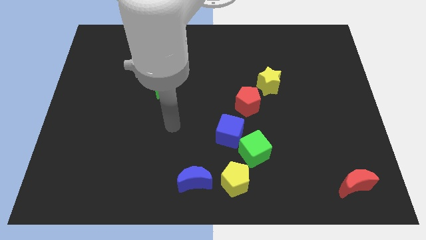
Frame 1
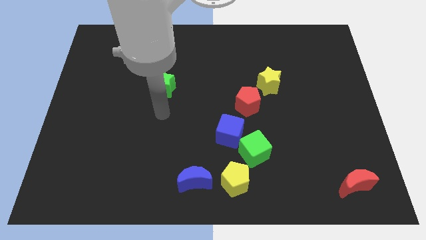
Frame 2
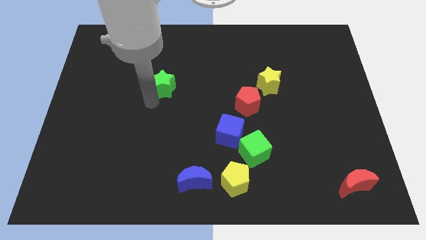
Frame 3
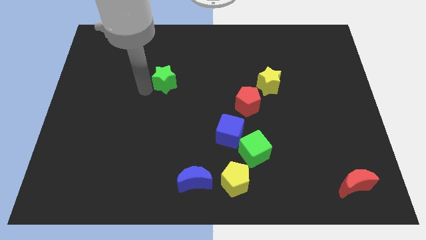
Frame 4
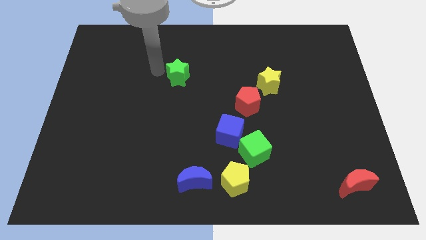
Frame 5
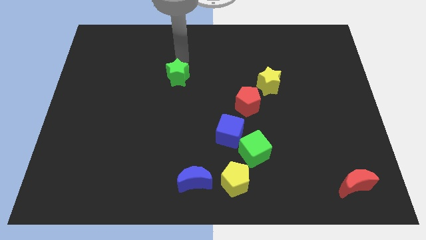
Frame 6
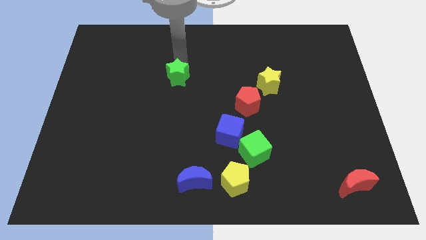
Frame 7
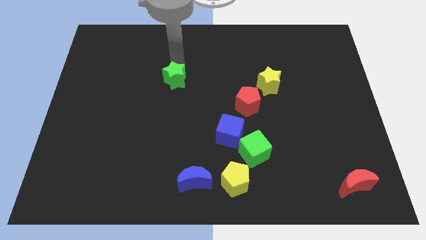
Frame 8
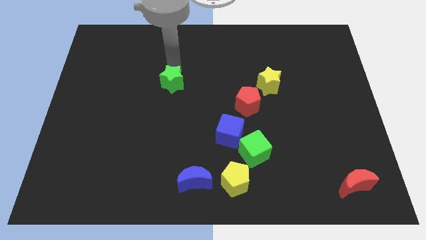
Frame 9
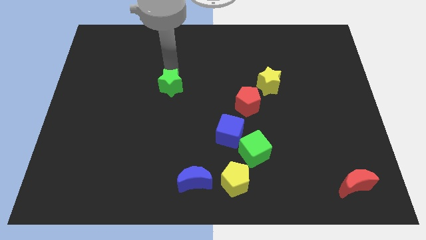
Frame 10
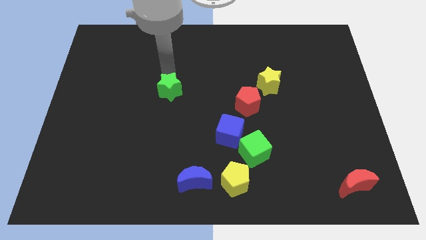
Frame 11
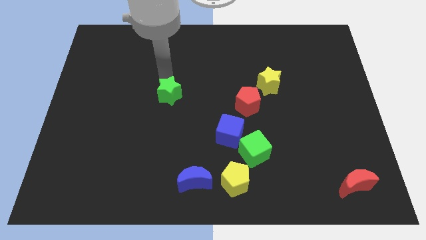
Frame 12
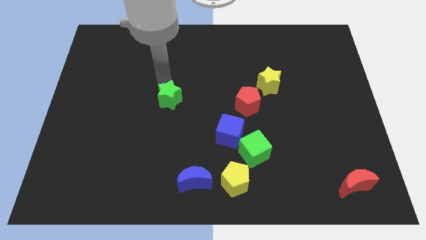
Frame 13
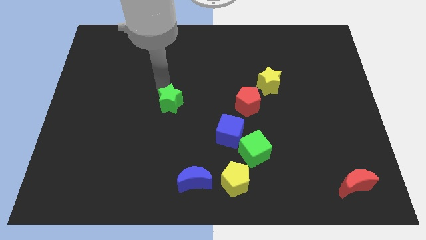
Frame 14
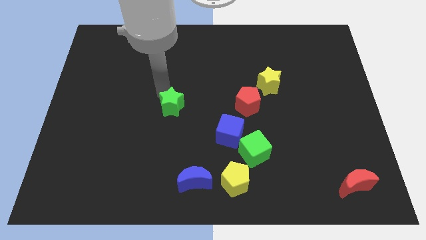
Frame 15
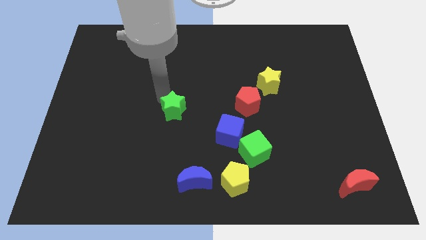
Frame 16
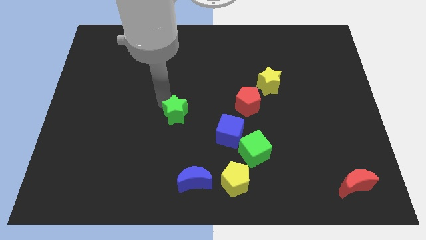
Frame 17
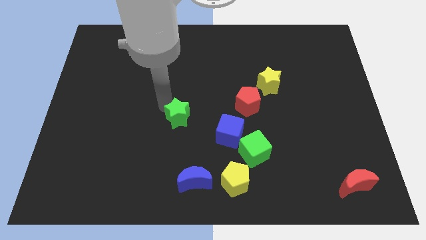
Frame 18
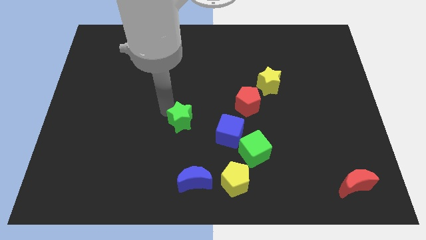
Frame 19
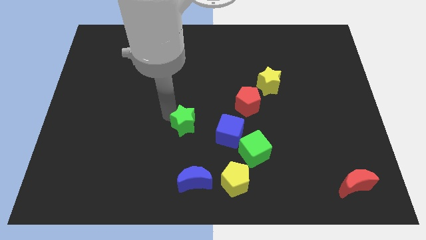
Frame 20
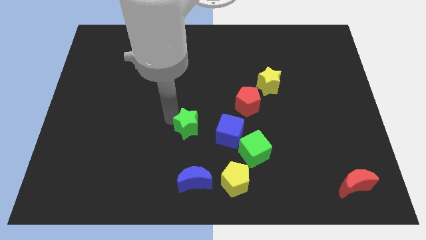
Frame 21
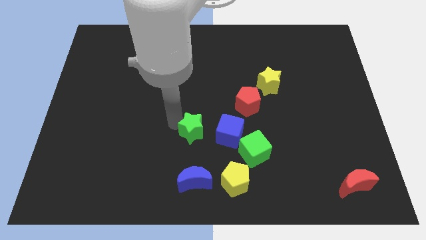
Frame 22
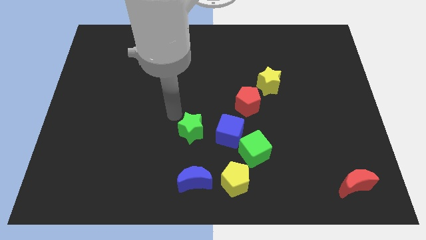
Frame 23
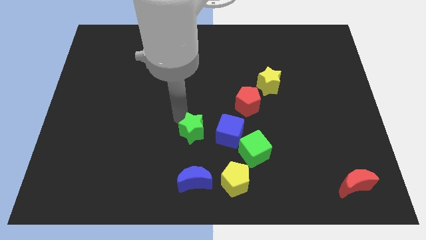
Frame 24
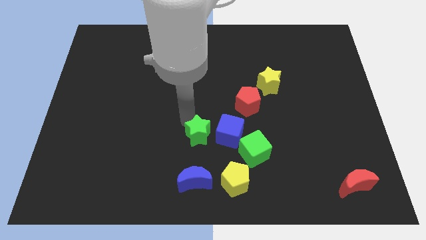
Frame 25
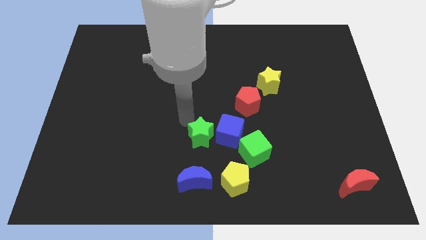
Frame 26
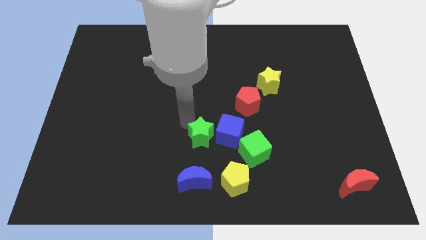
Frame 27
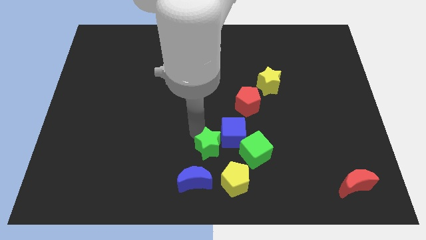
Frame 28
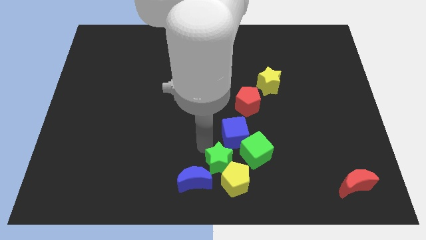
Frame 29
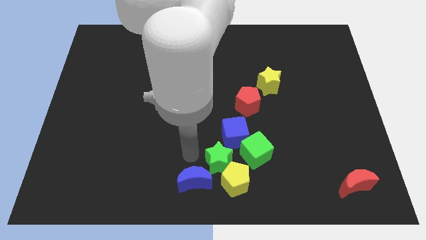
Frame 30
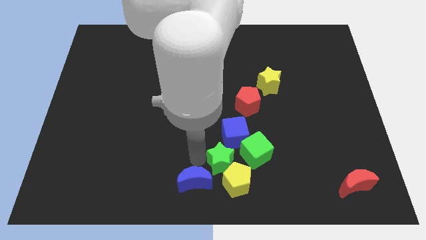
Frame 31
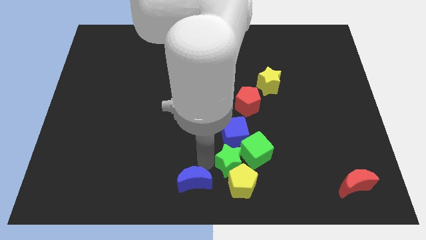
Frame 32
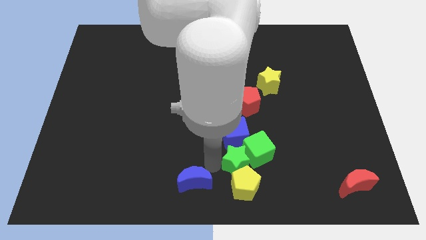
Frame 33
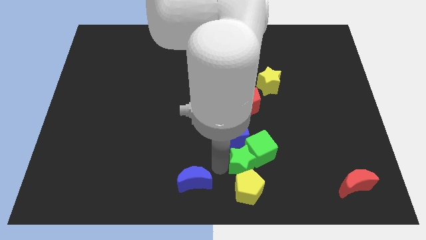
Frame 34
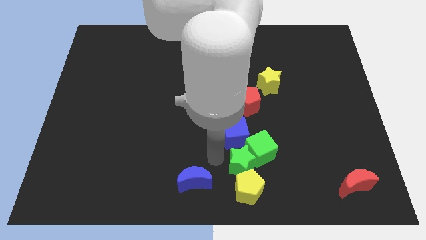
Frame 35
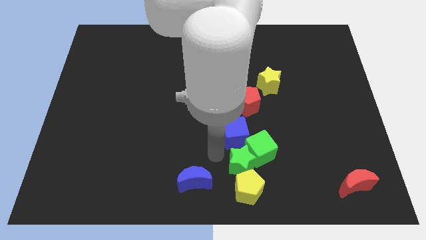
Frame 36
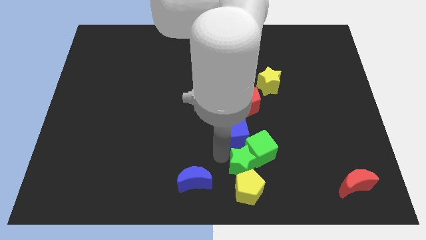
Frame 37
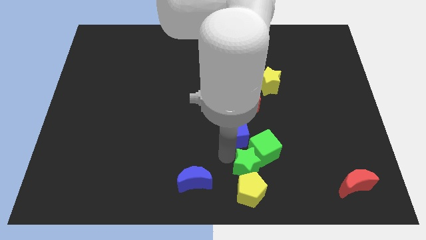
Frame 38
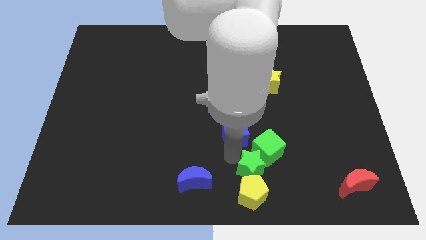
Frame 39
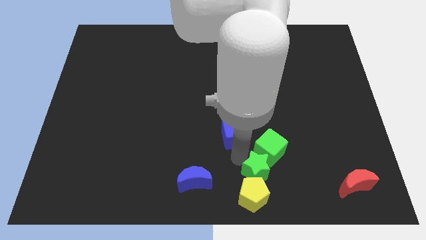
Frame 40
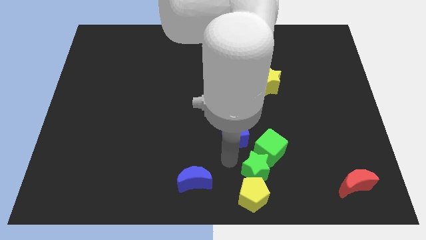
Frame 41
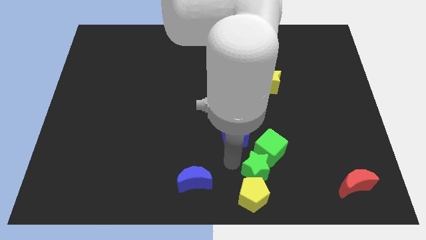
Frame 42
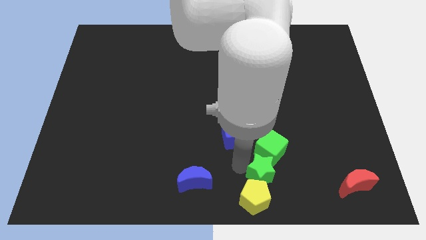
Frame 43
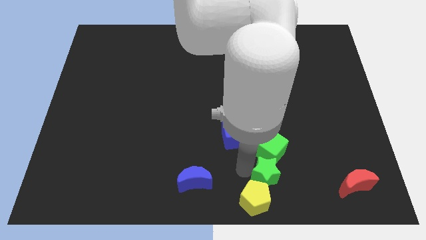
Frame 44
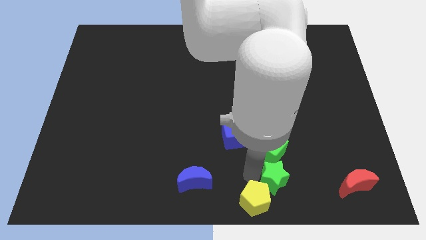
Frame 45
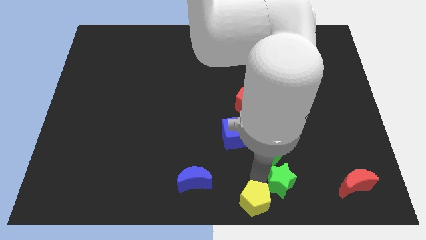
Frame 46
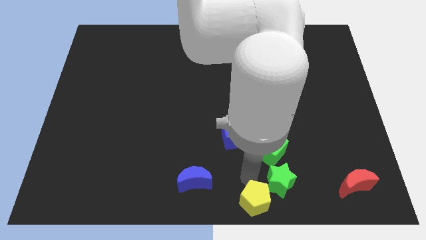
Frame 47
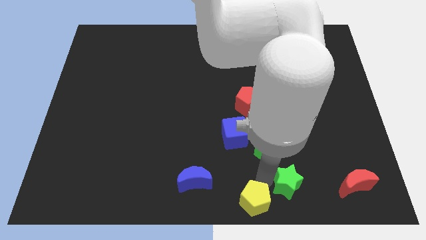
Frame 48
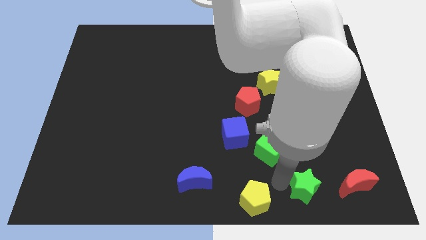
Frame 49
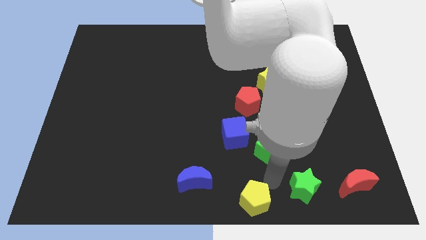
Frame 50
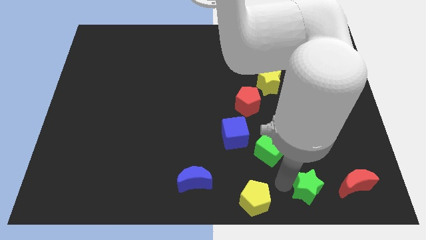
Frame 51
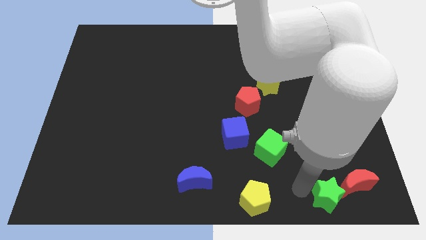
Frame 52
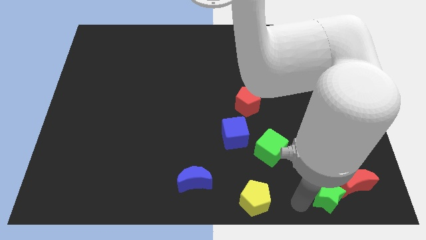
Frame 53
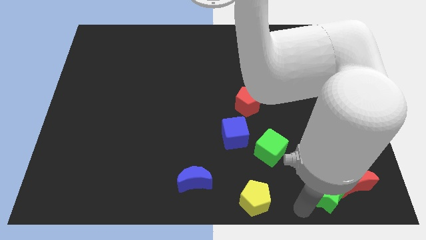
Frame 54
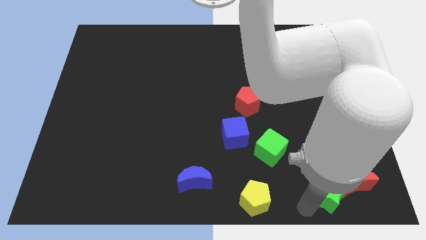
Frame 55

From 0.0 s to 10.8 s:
push the green star close to the red moon

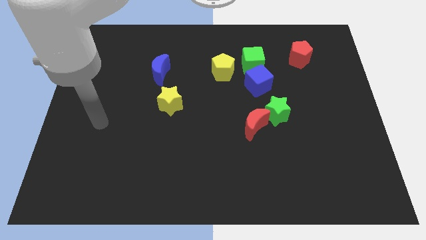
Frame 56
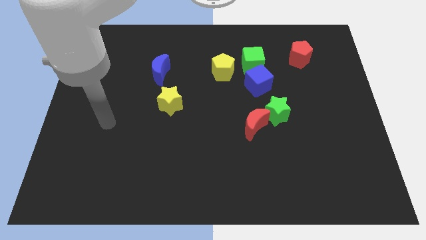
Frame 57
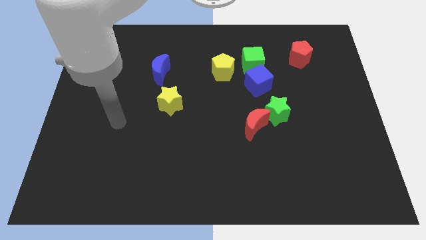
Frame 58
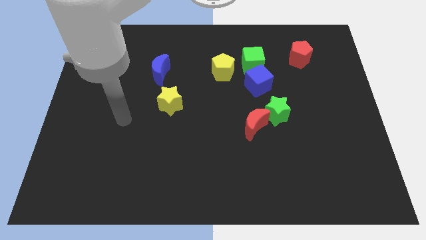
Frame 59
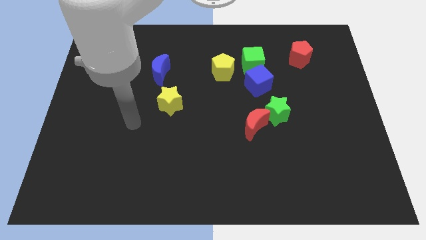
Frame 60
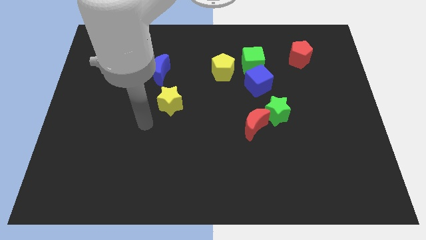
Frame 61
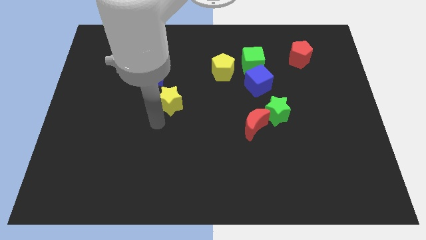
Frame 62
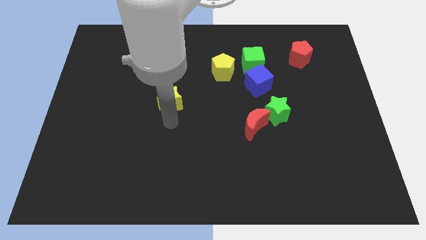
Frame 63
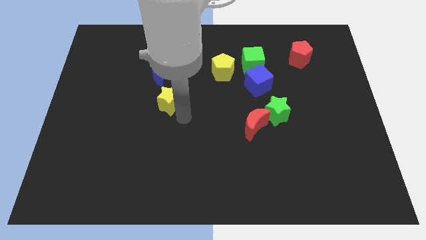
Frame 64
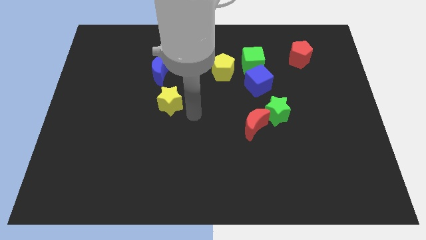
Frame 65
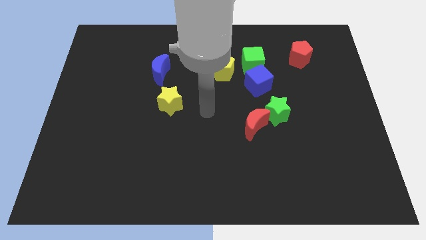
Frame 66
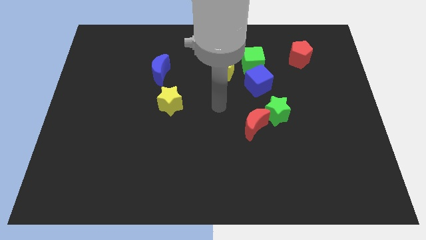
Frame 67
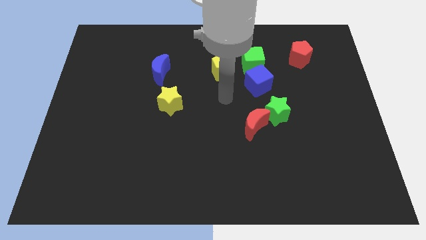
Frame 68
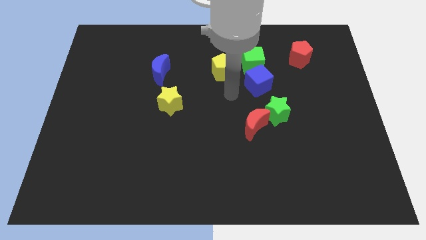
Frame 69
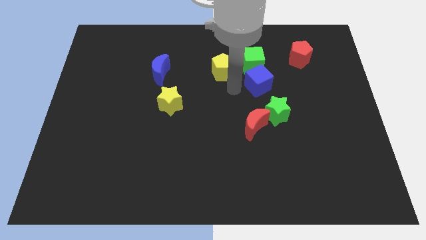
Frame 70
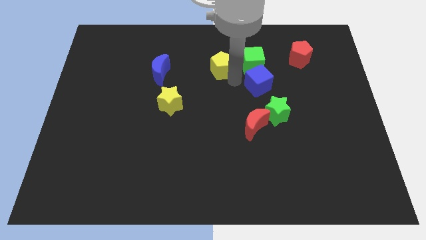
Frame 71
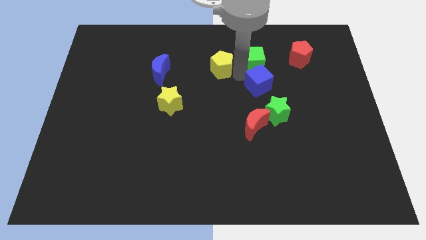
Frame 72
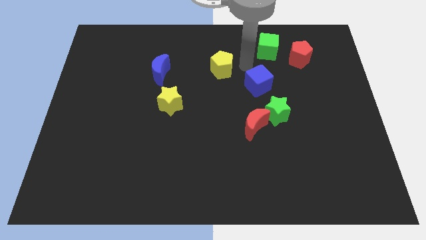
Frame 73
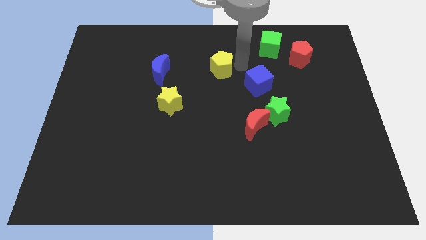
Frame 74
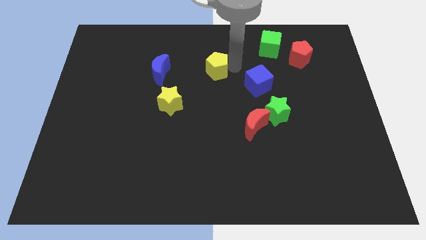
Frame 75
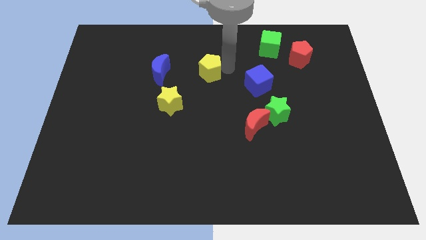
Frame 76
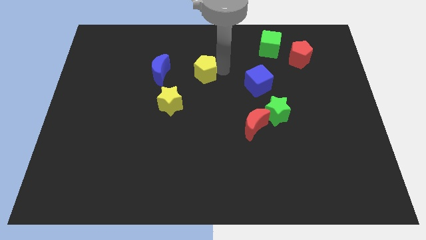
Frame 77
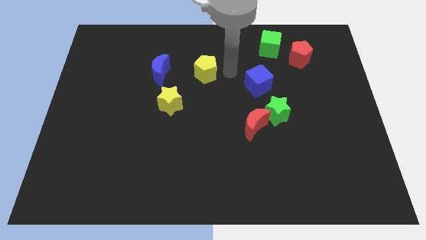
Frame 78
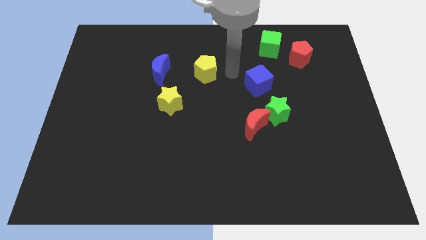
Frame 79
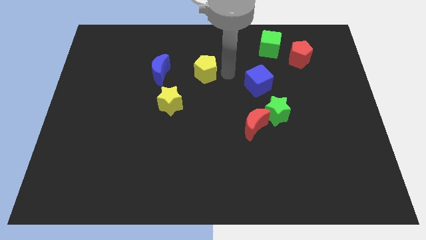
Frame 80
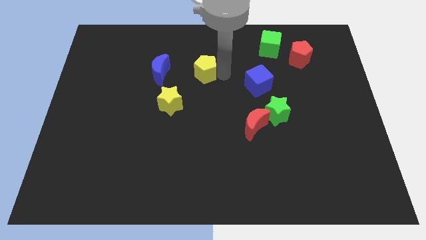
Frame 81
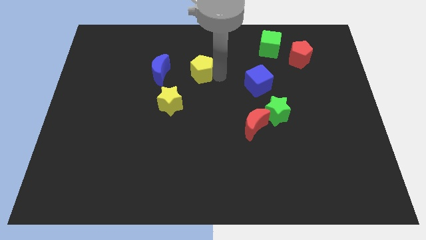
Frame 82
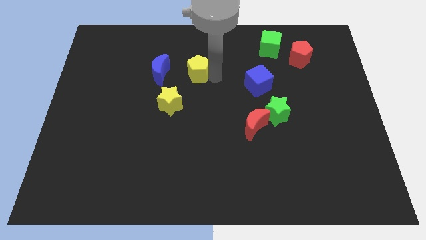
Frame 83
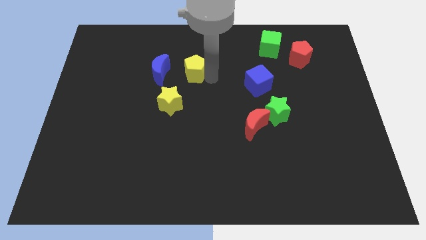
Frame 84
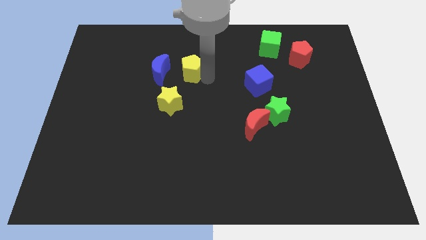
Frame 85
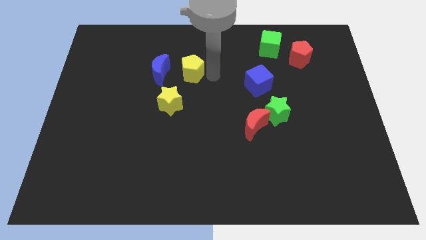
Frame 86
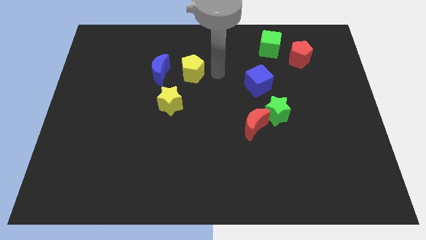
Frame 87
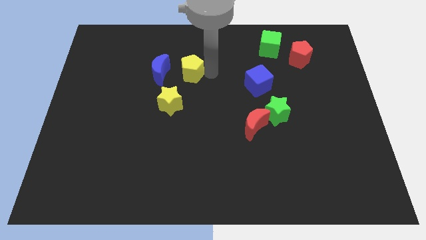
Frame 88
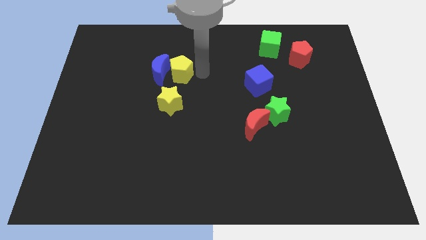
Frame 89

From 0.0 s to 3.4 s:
push the yellow pentagon to the blue moon
